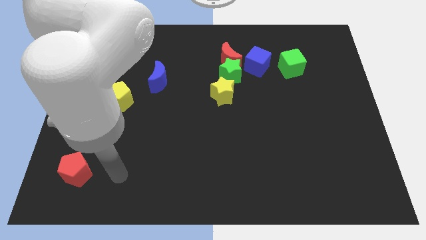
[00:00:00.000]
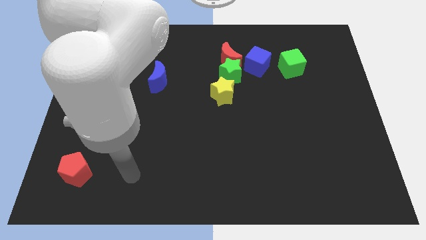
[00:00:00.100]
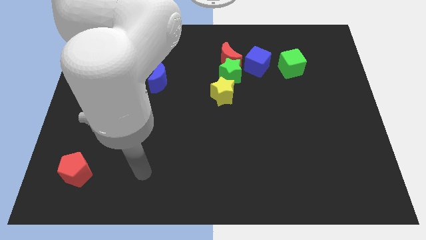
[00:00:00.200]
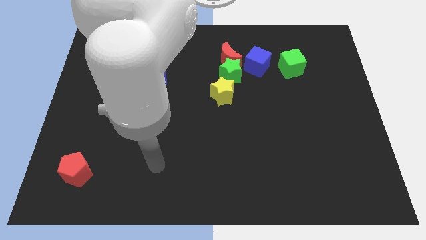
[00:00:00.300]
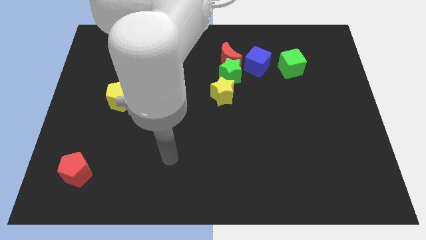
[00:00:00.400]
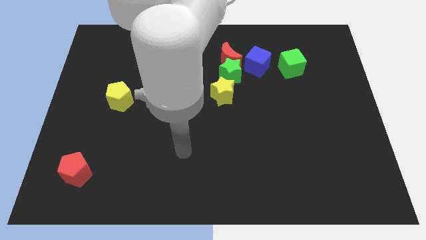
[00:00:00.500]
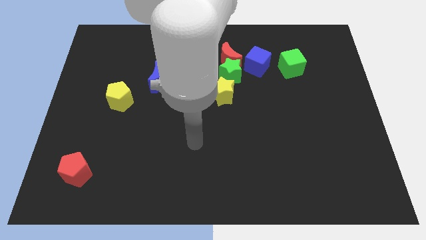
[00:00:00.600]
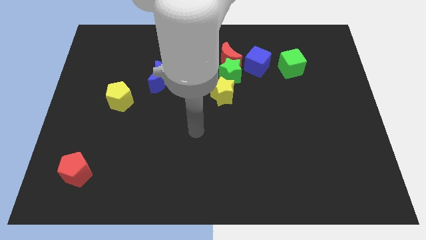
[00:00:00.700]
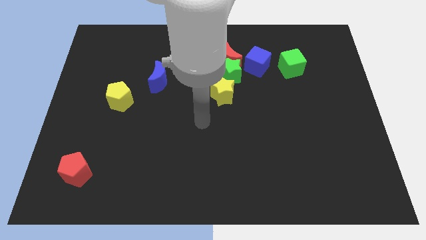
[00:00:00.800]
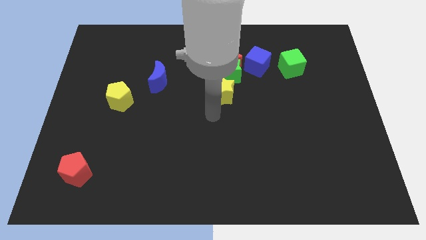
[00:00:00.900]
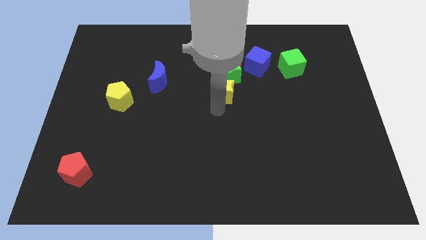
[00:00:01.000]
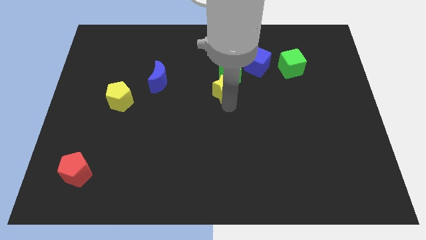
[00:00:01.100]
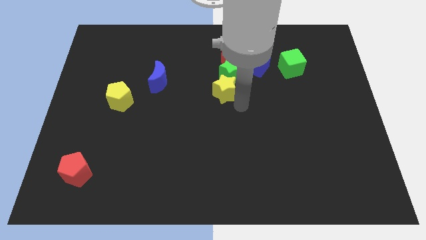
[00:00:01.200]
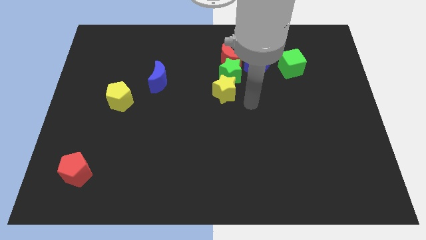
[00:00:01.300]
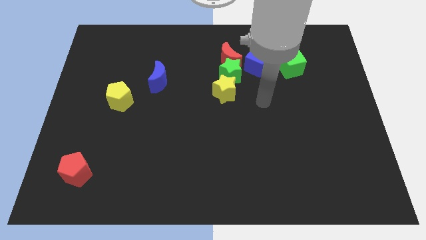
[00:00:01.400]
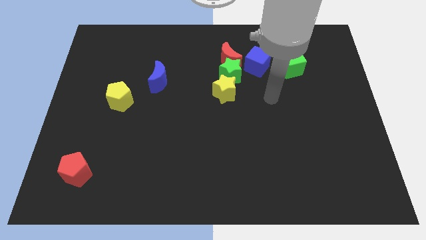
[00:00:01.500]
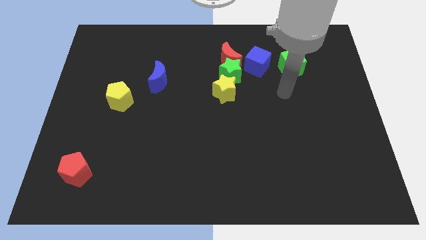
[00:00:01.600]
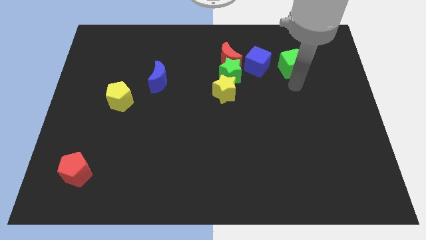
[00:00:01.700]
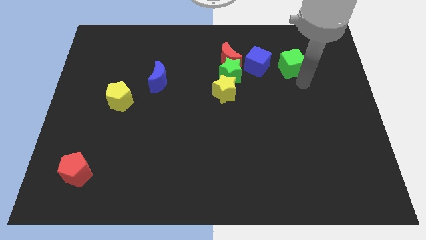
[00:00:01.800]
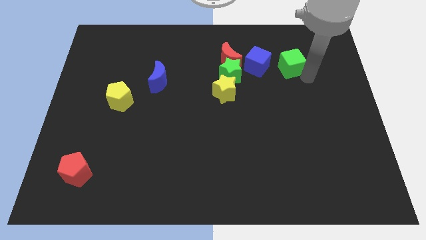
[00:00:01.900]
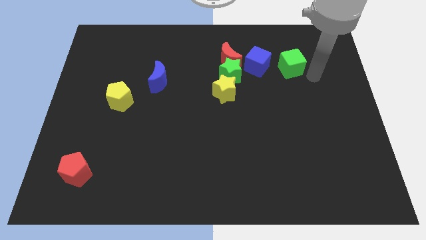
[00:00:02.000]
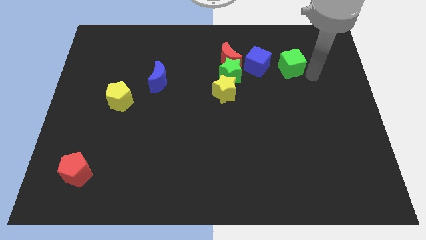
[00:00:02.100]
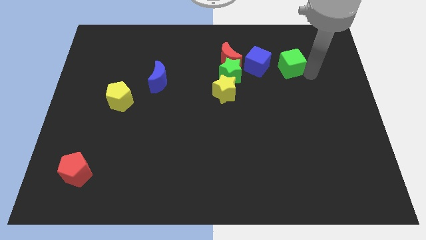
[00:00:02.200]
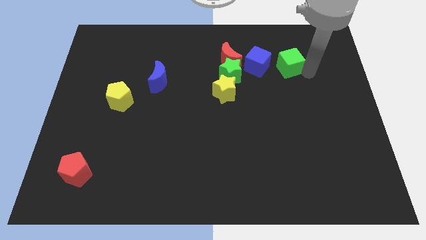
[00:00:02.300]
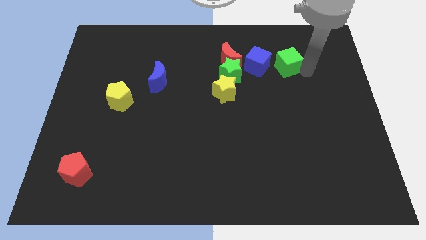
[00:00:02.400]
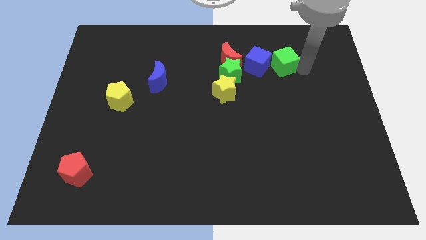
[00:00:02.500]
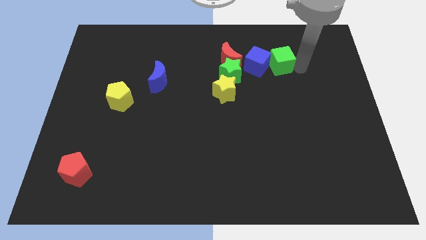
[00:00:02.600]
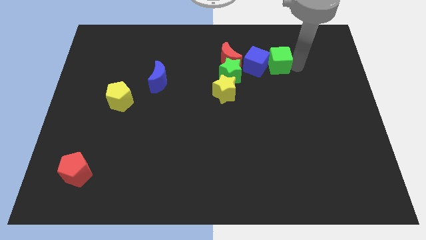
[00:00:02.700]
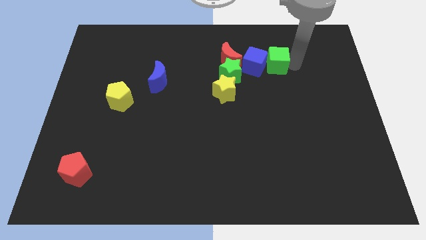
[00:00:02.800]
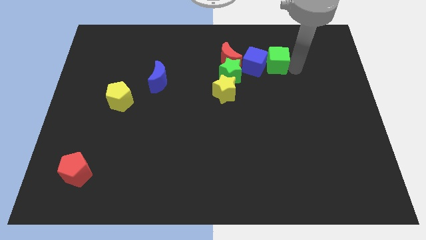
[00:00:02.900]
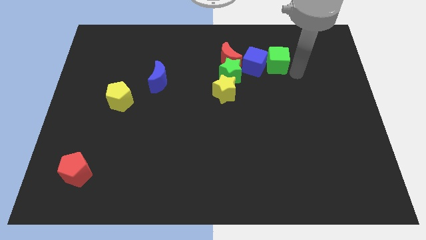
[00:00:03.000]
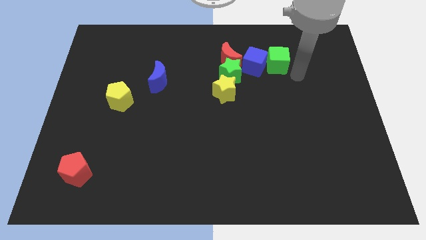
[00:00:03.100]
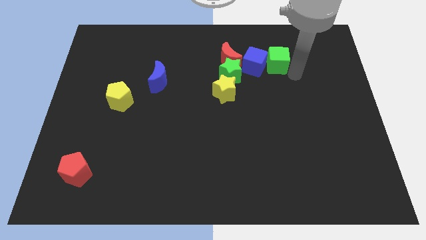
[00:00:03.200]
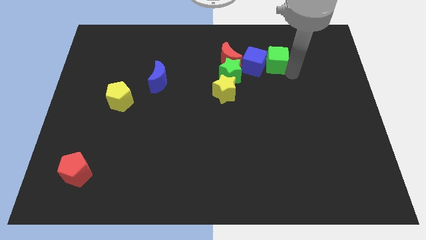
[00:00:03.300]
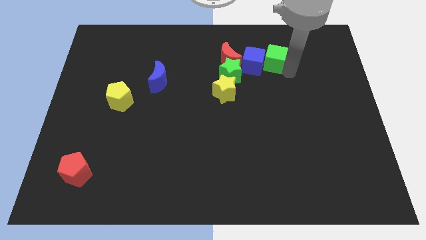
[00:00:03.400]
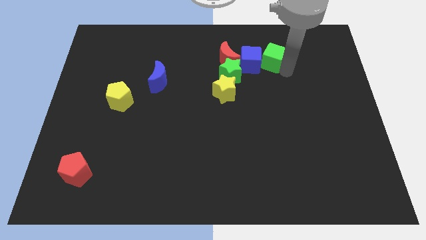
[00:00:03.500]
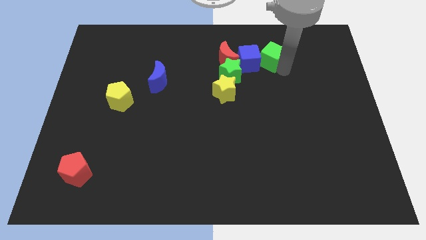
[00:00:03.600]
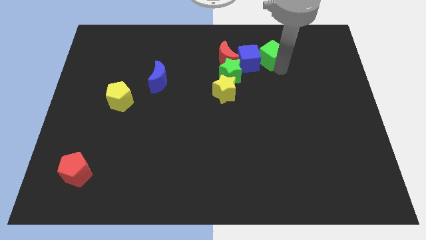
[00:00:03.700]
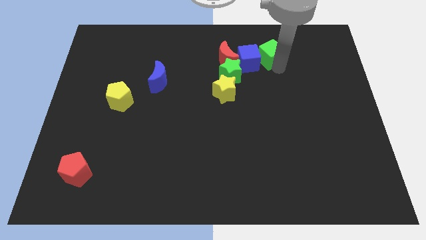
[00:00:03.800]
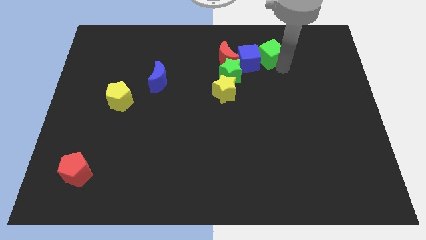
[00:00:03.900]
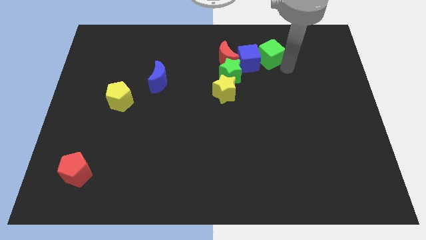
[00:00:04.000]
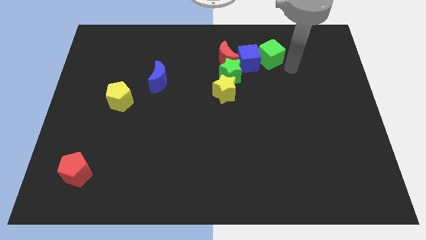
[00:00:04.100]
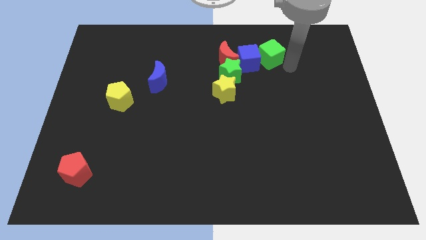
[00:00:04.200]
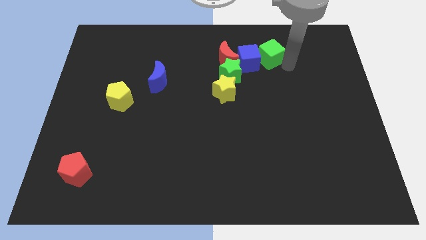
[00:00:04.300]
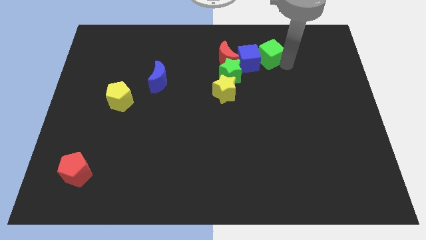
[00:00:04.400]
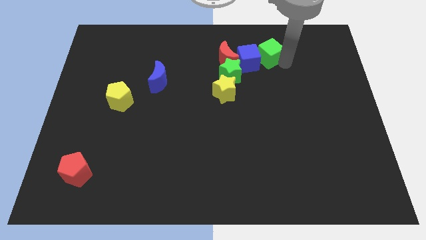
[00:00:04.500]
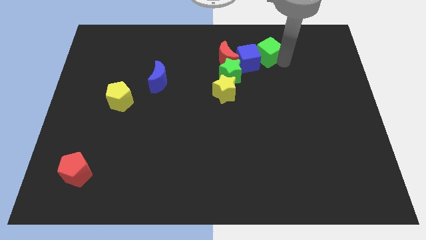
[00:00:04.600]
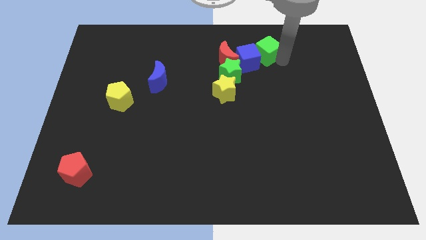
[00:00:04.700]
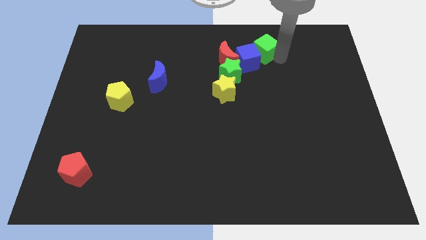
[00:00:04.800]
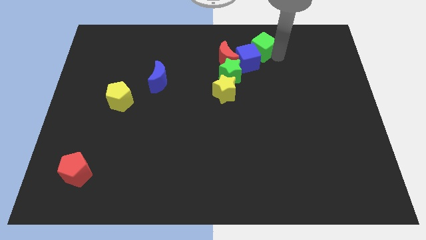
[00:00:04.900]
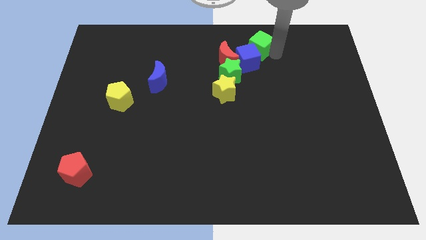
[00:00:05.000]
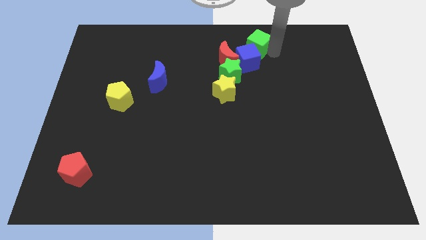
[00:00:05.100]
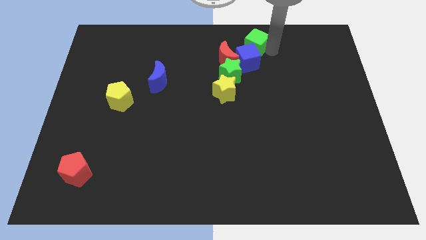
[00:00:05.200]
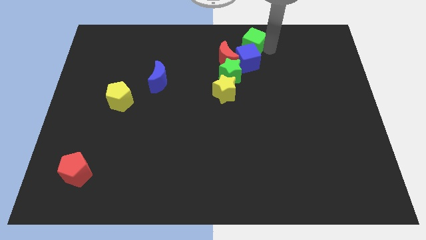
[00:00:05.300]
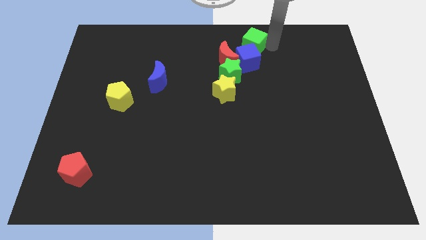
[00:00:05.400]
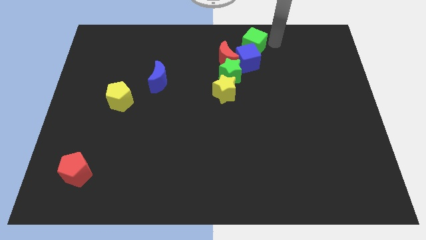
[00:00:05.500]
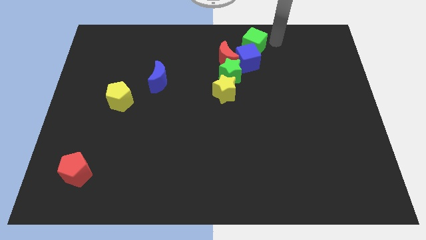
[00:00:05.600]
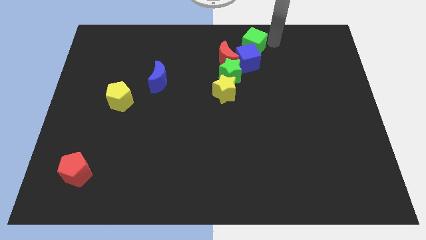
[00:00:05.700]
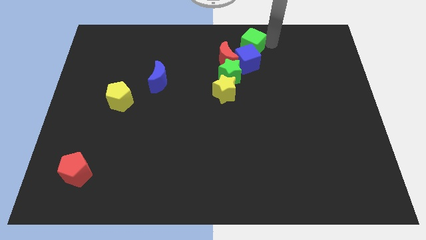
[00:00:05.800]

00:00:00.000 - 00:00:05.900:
push the green cube a little bit to the left

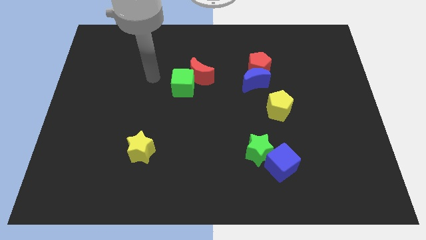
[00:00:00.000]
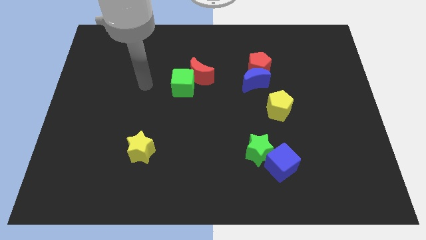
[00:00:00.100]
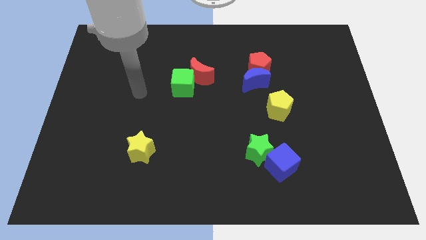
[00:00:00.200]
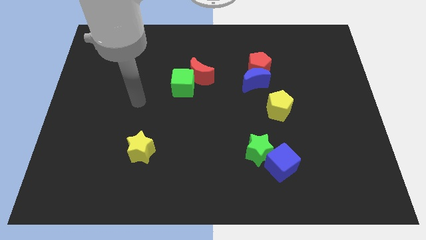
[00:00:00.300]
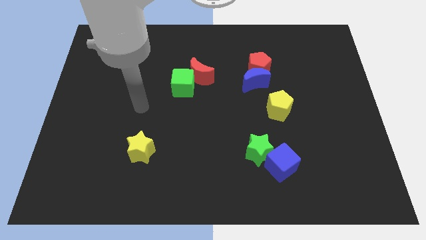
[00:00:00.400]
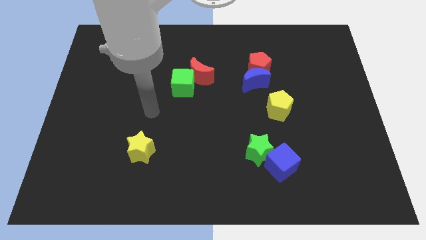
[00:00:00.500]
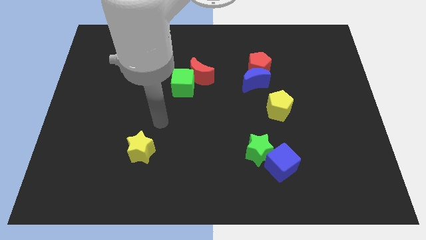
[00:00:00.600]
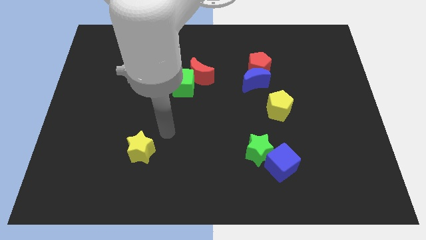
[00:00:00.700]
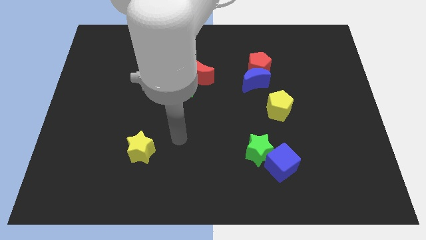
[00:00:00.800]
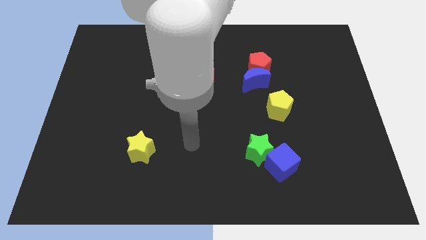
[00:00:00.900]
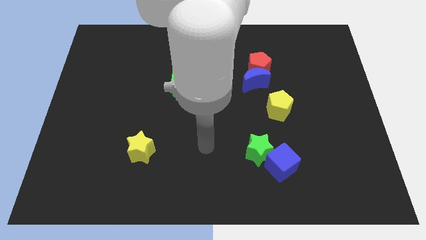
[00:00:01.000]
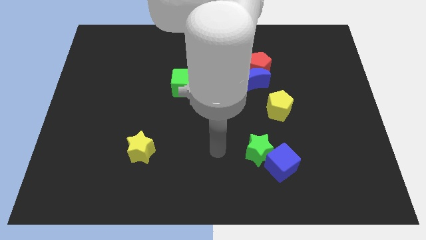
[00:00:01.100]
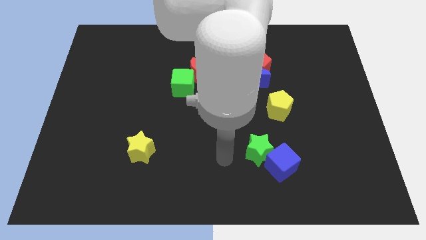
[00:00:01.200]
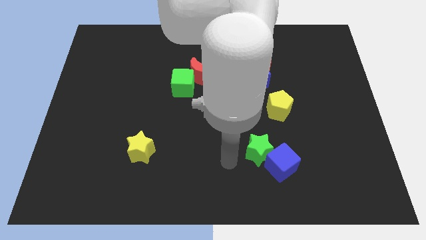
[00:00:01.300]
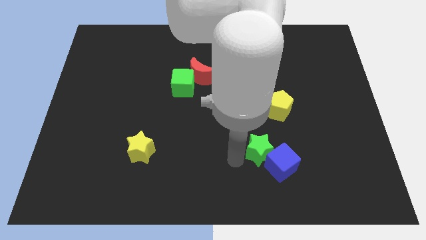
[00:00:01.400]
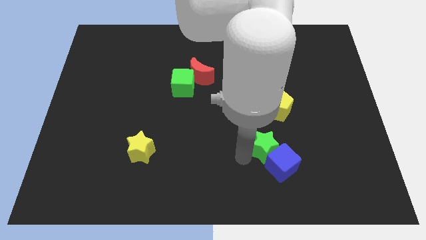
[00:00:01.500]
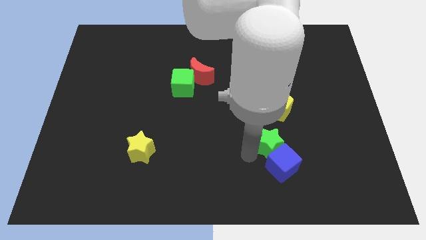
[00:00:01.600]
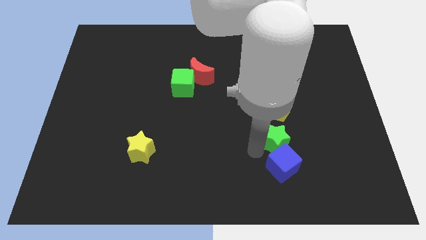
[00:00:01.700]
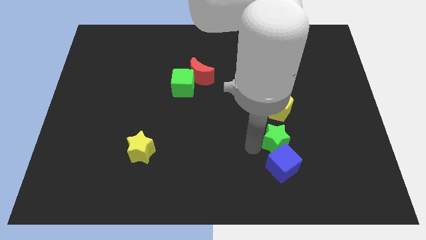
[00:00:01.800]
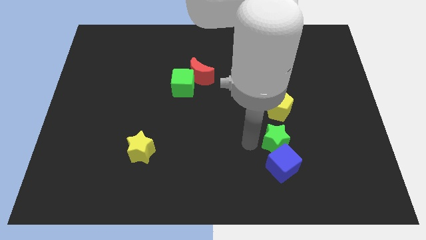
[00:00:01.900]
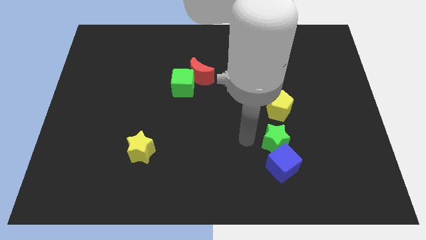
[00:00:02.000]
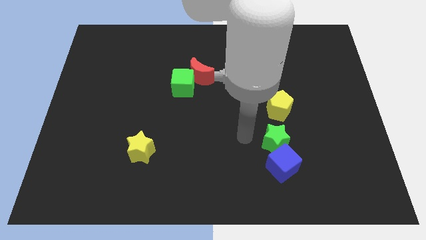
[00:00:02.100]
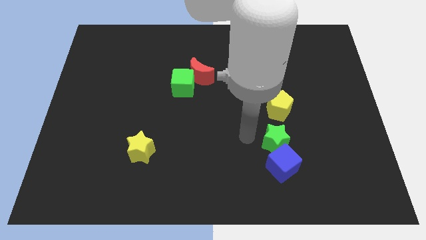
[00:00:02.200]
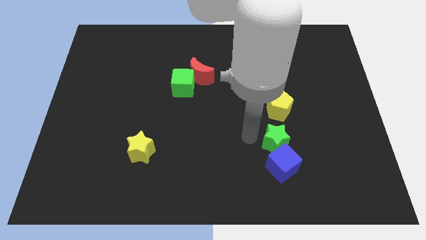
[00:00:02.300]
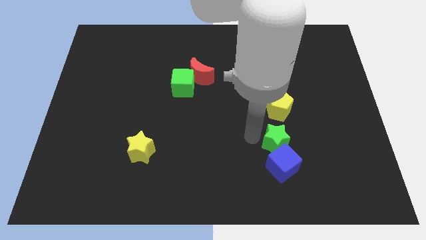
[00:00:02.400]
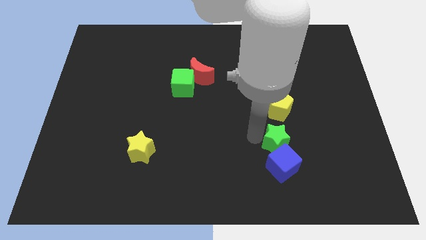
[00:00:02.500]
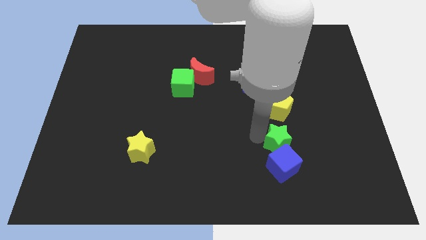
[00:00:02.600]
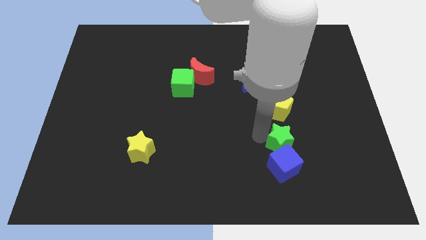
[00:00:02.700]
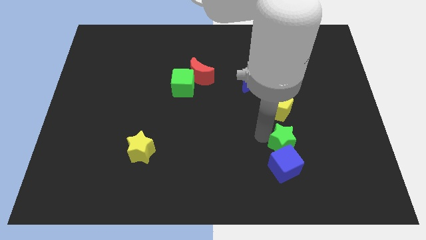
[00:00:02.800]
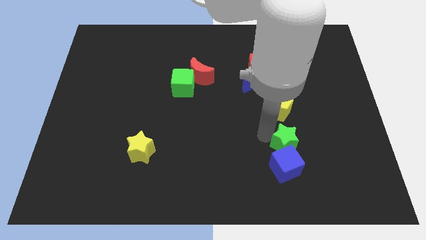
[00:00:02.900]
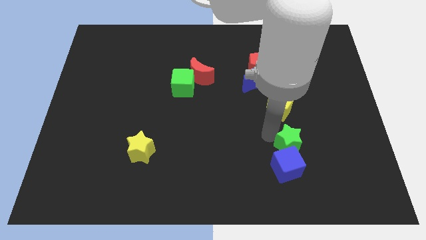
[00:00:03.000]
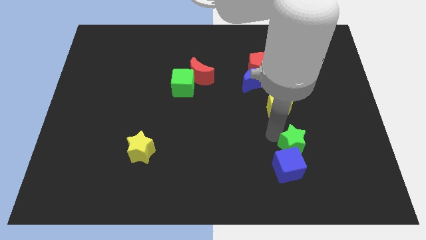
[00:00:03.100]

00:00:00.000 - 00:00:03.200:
slide the green star to the right a little
